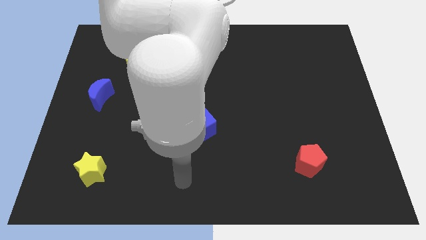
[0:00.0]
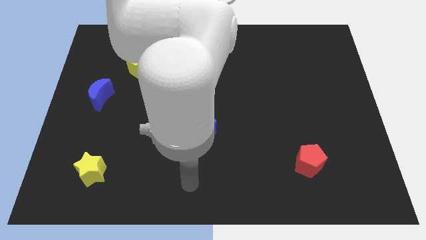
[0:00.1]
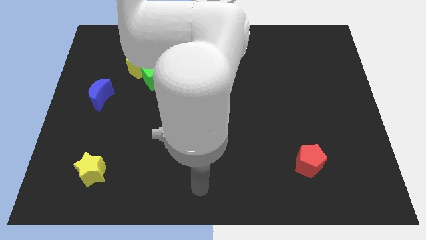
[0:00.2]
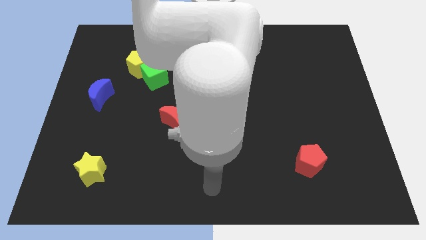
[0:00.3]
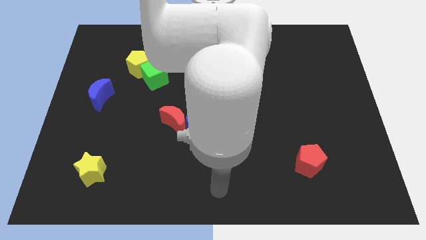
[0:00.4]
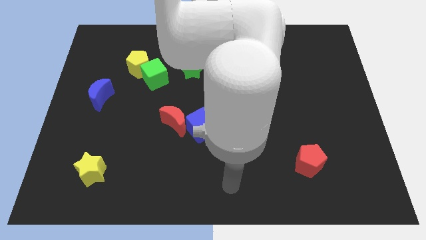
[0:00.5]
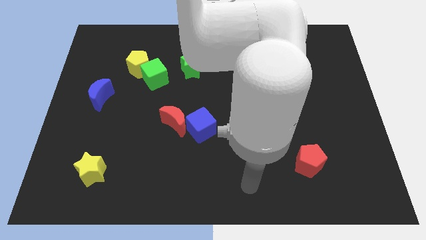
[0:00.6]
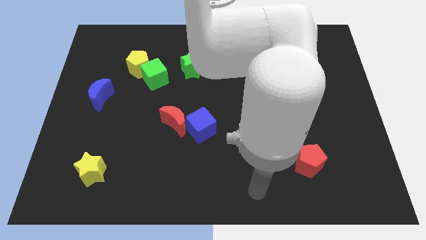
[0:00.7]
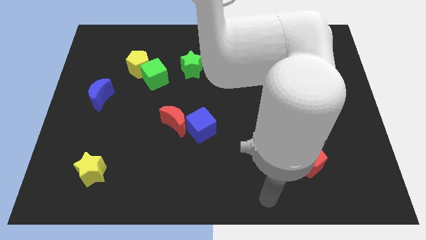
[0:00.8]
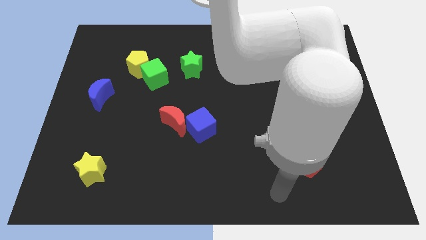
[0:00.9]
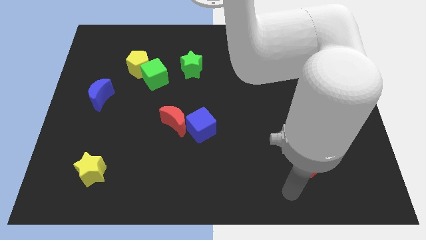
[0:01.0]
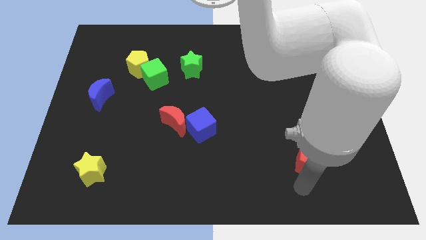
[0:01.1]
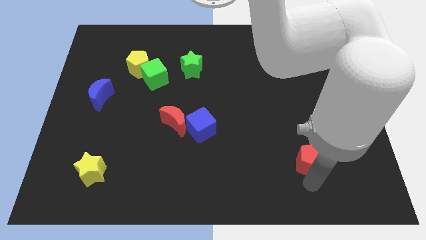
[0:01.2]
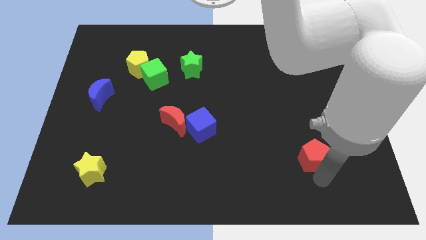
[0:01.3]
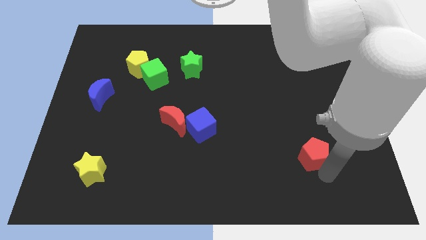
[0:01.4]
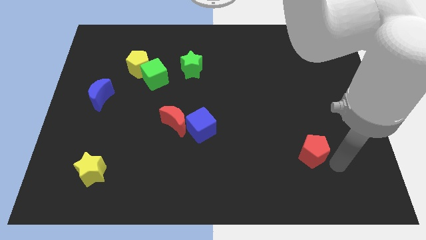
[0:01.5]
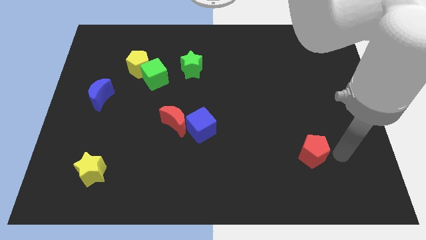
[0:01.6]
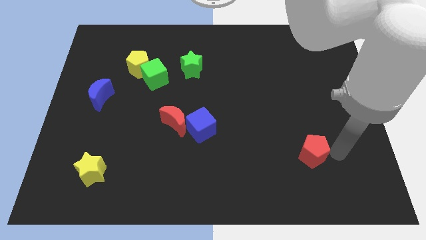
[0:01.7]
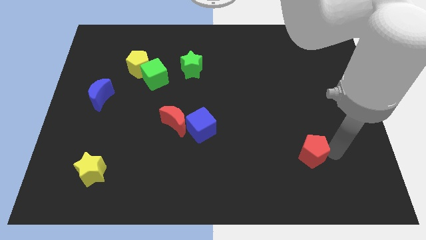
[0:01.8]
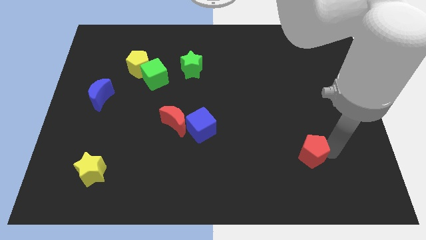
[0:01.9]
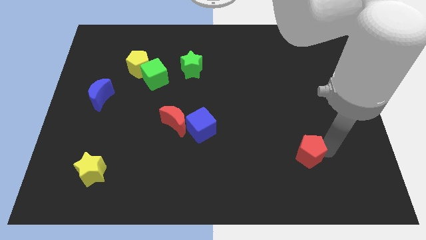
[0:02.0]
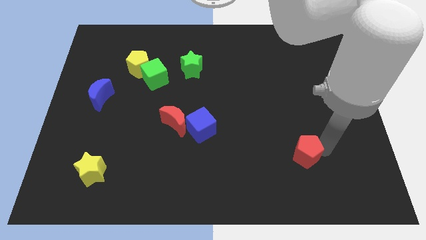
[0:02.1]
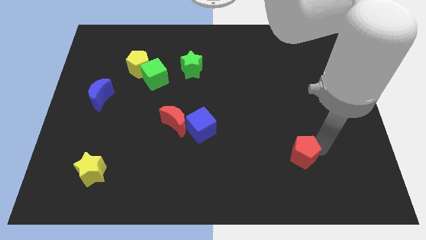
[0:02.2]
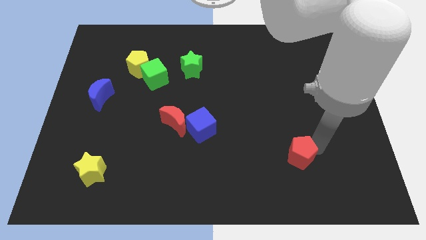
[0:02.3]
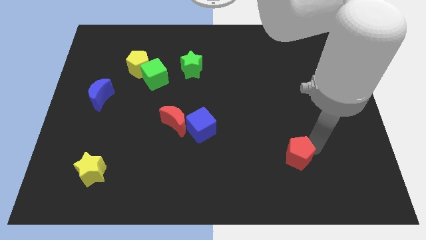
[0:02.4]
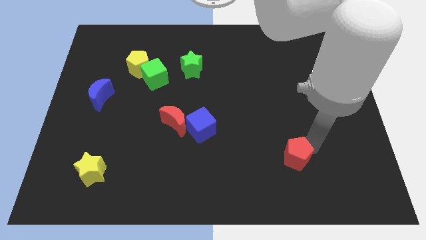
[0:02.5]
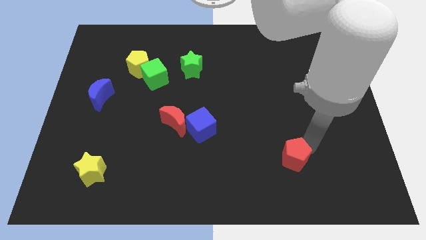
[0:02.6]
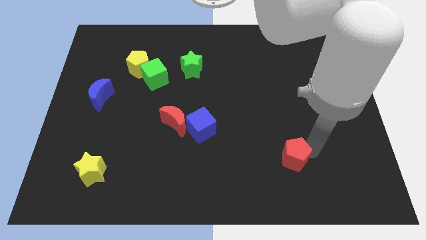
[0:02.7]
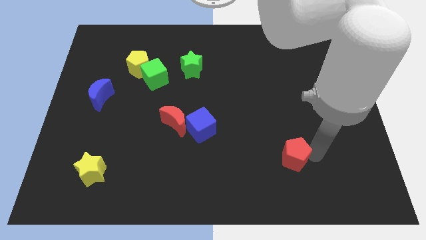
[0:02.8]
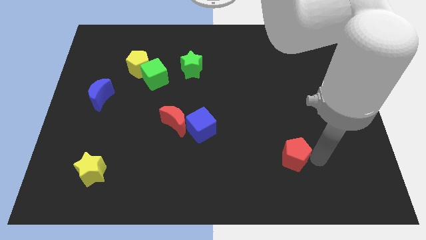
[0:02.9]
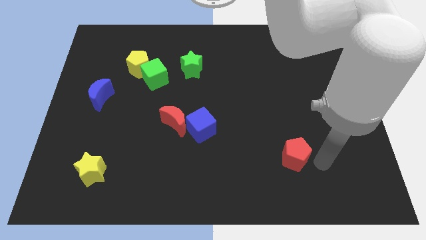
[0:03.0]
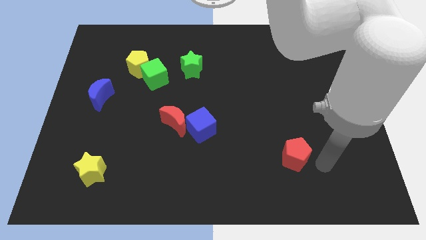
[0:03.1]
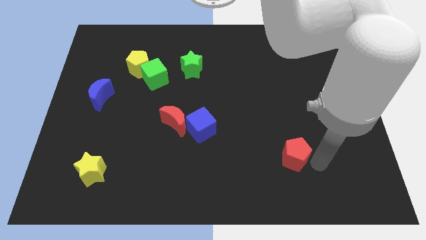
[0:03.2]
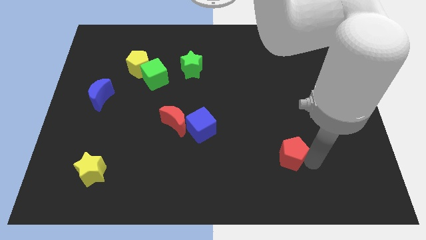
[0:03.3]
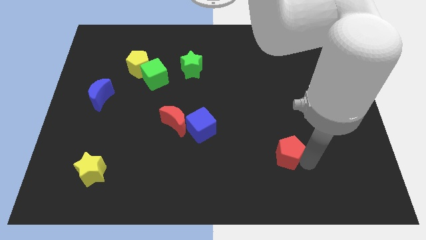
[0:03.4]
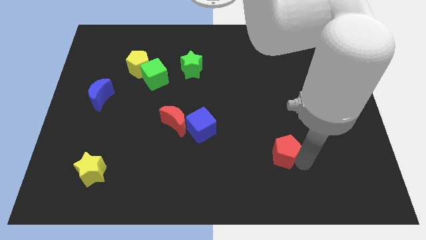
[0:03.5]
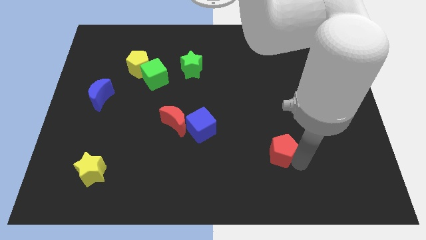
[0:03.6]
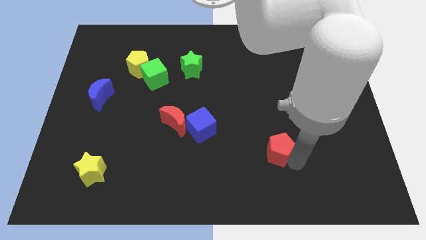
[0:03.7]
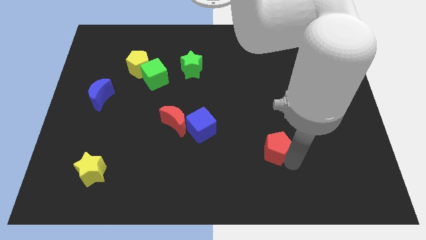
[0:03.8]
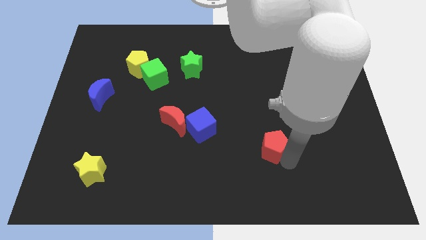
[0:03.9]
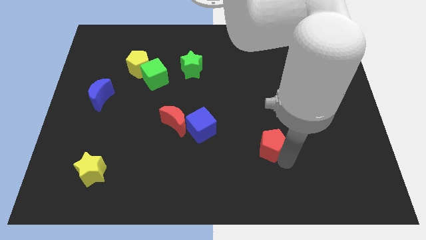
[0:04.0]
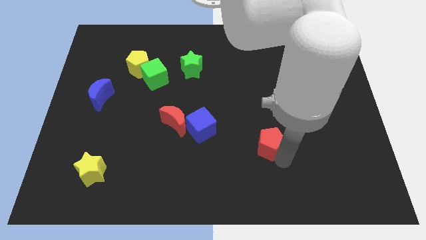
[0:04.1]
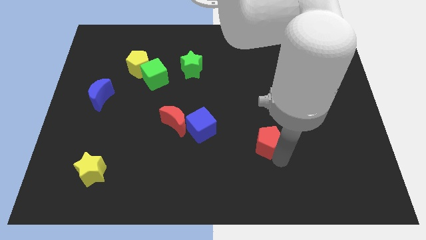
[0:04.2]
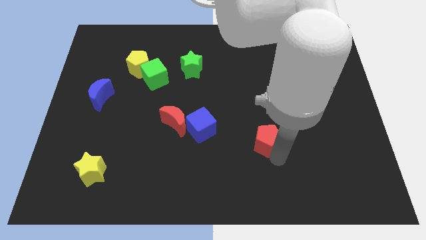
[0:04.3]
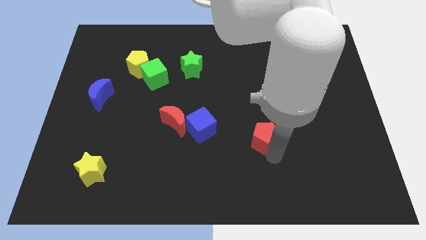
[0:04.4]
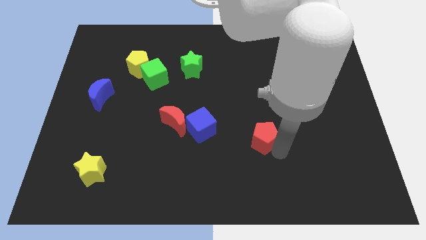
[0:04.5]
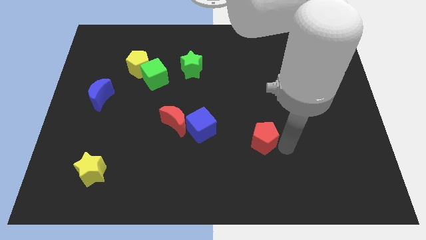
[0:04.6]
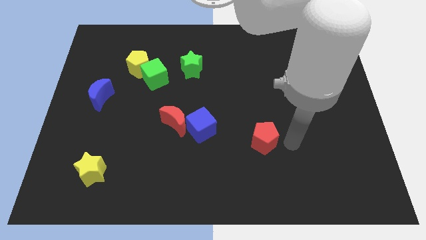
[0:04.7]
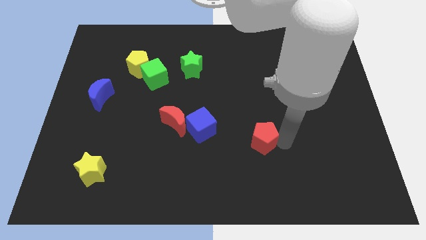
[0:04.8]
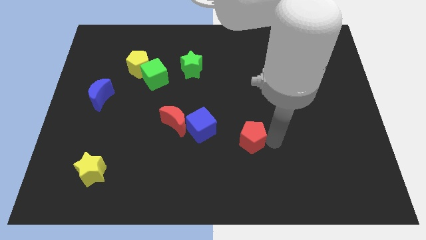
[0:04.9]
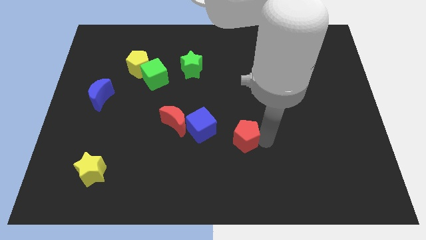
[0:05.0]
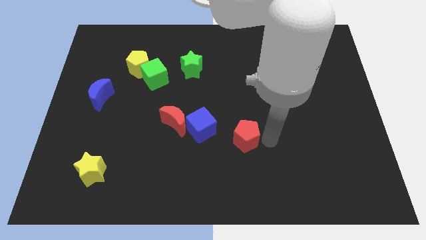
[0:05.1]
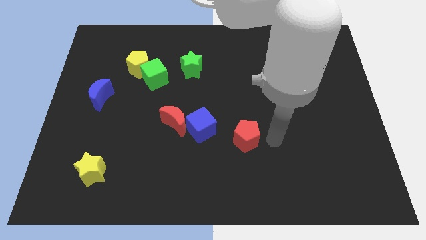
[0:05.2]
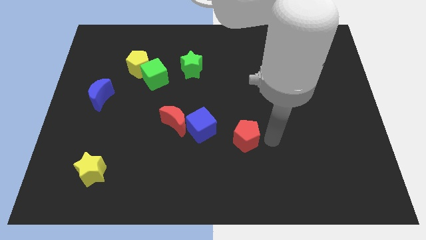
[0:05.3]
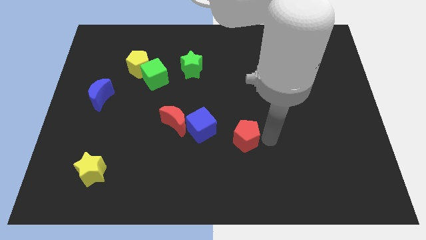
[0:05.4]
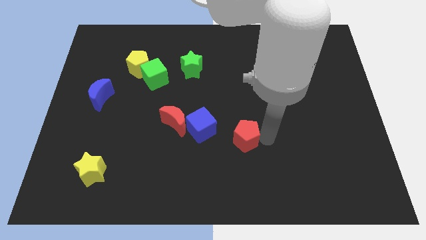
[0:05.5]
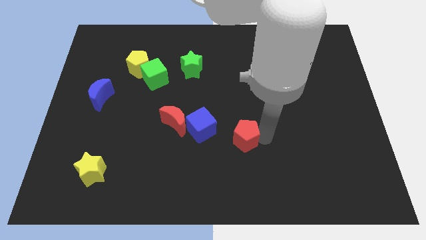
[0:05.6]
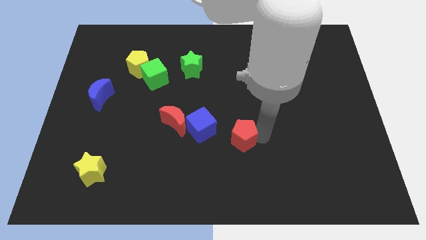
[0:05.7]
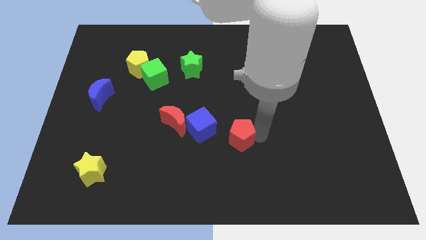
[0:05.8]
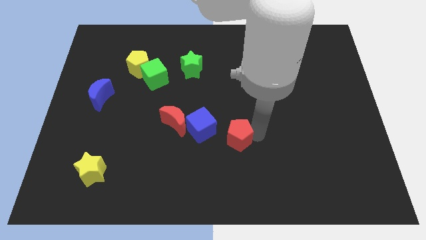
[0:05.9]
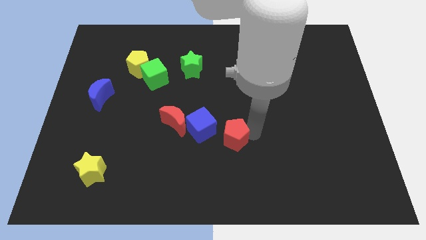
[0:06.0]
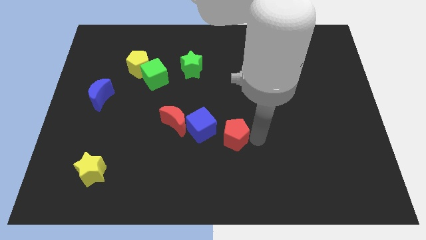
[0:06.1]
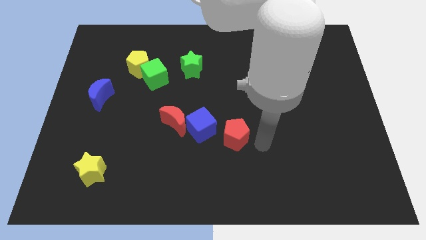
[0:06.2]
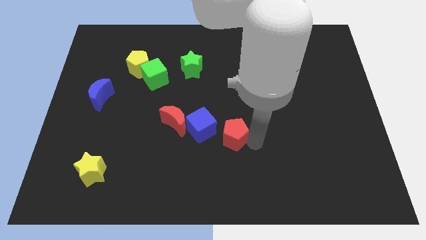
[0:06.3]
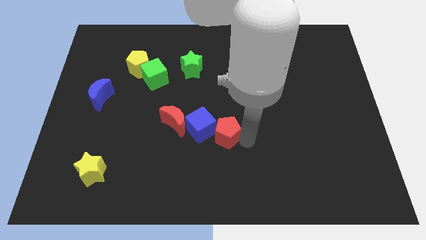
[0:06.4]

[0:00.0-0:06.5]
put the red pentagon to the blue cube

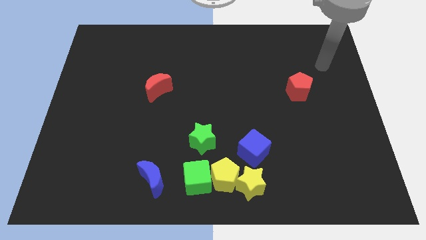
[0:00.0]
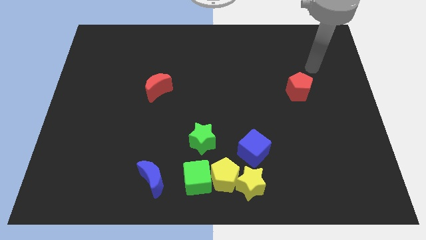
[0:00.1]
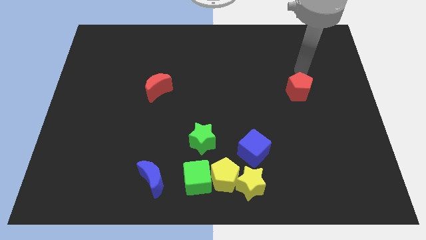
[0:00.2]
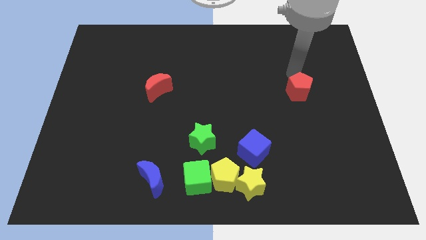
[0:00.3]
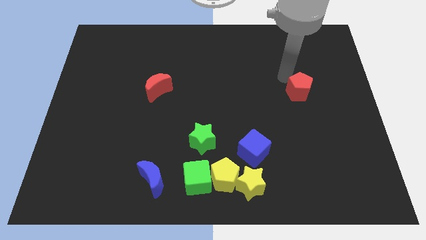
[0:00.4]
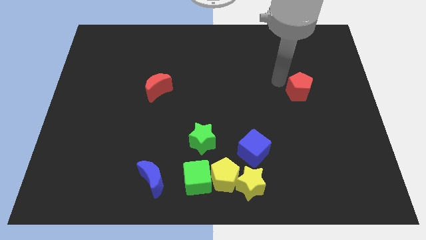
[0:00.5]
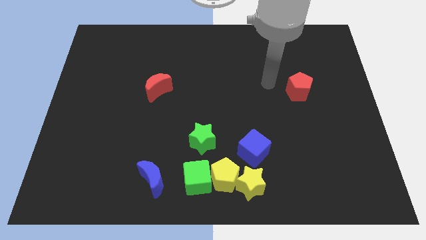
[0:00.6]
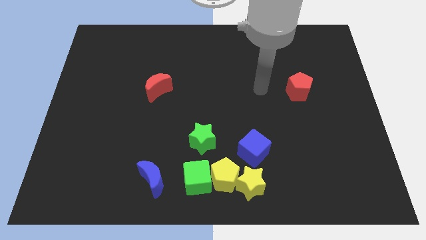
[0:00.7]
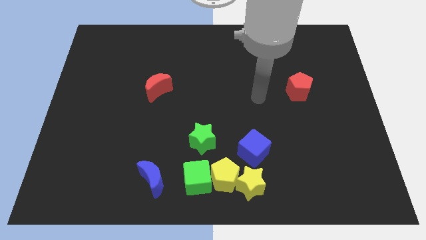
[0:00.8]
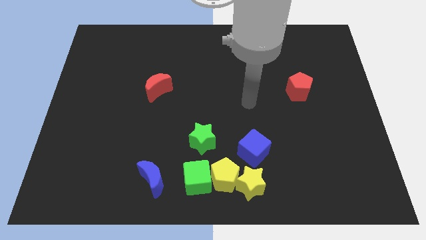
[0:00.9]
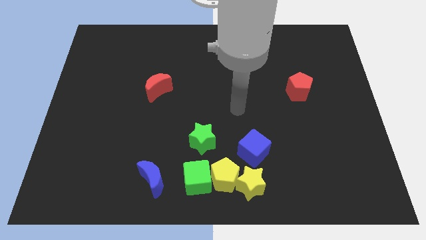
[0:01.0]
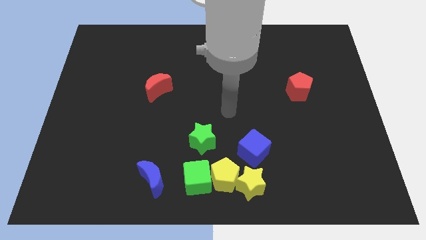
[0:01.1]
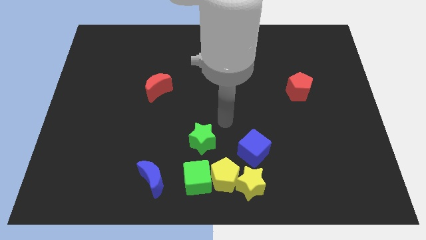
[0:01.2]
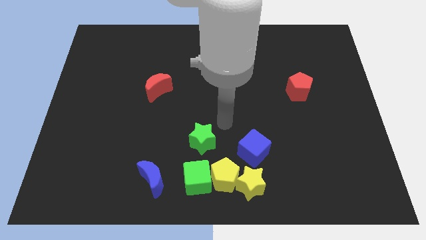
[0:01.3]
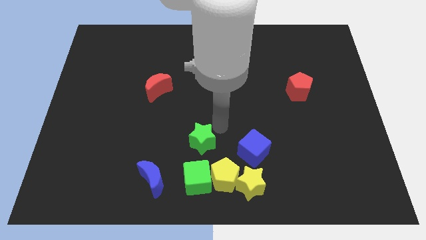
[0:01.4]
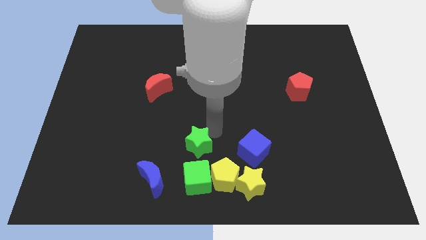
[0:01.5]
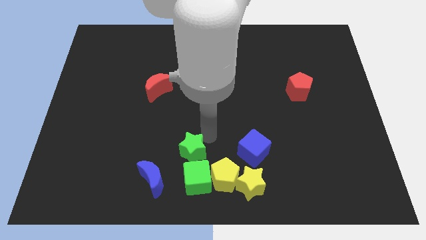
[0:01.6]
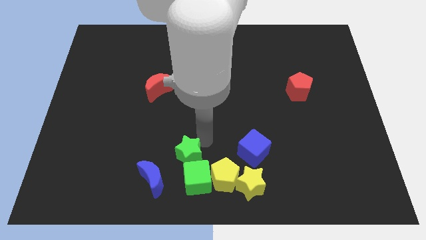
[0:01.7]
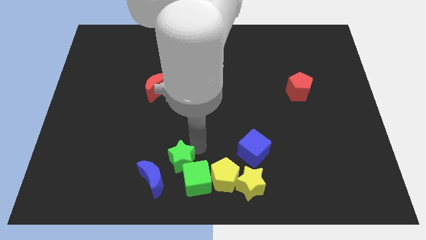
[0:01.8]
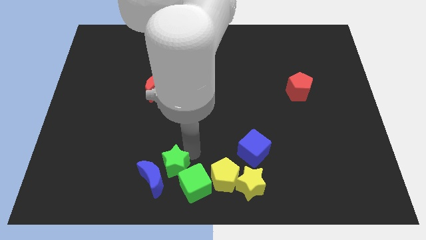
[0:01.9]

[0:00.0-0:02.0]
move the green star next to the blue moon
